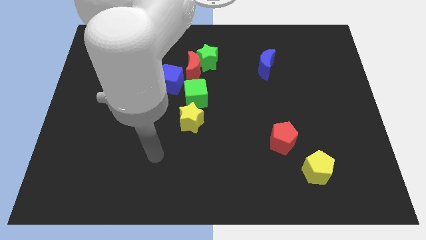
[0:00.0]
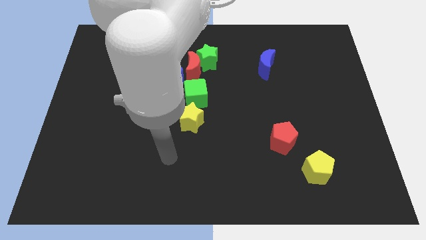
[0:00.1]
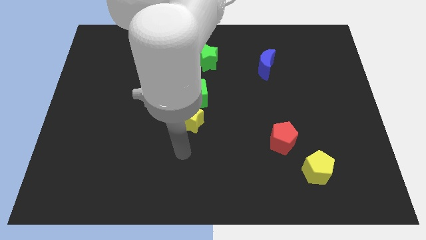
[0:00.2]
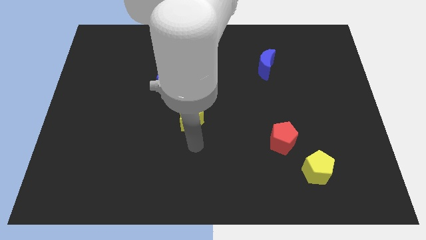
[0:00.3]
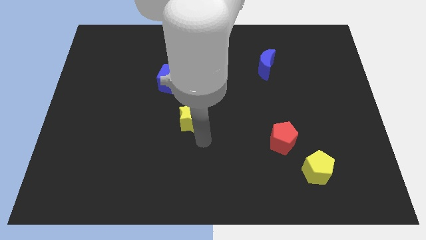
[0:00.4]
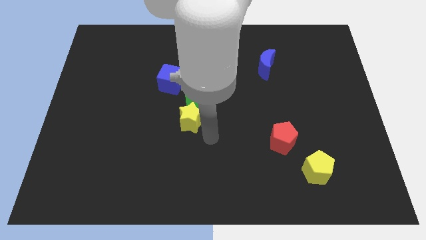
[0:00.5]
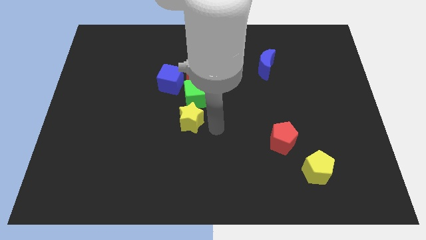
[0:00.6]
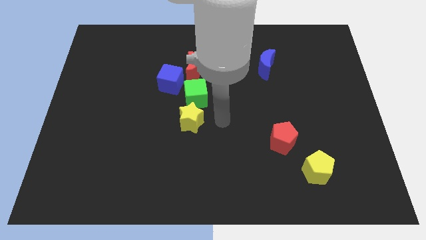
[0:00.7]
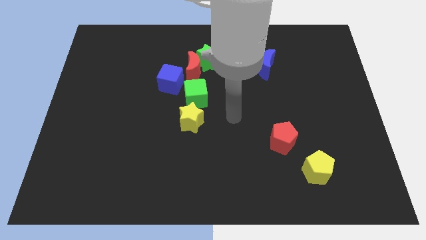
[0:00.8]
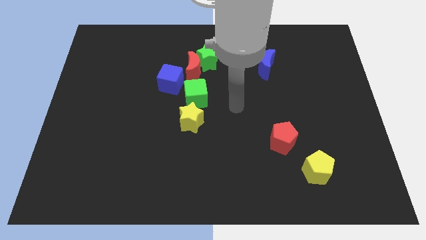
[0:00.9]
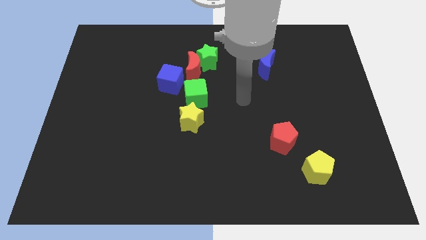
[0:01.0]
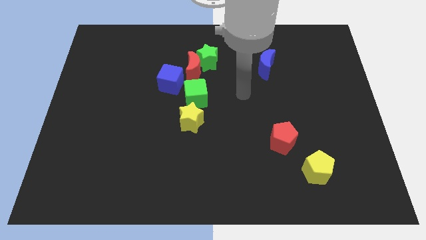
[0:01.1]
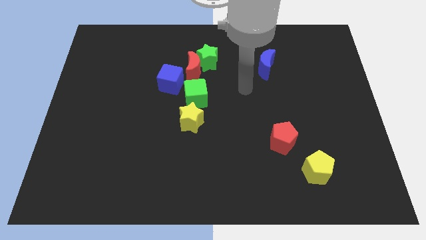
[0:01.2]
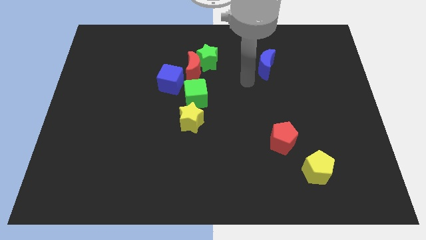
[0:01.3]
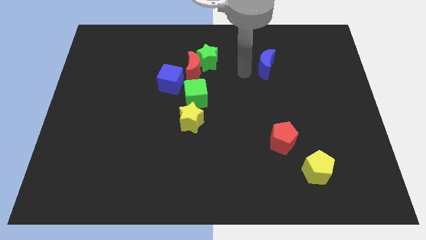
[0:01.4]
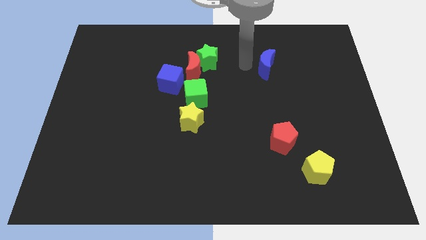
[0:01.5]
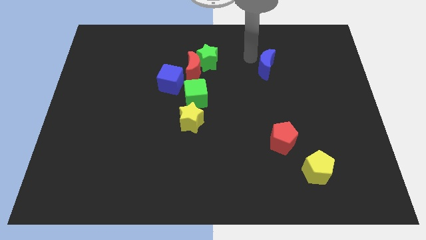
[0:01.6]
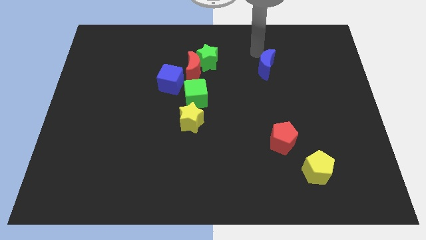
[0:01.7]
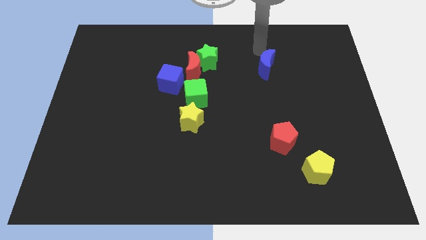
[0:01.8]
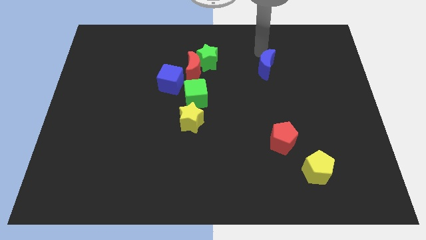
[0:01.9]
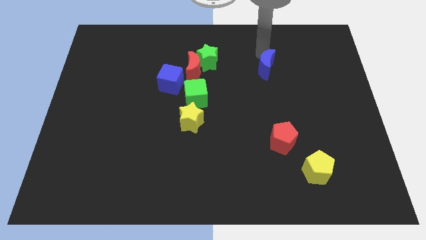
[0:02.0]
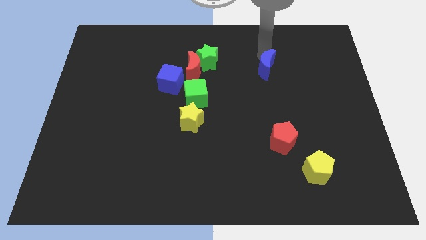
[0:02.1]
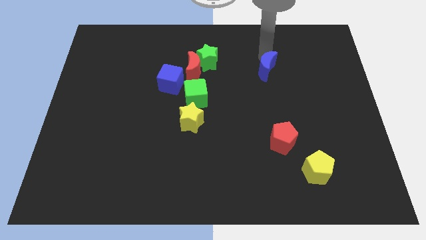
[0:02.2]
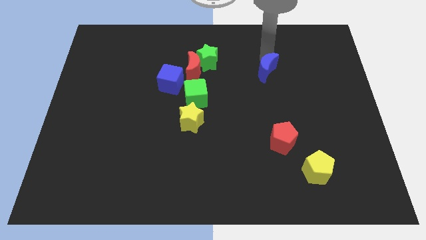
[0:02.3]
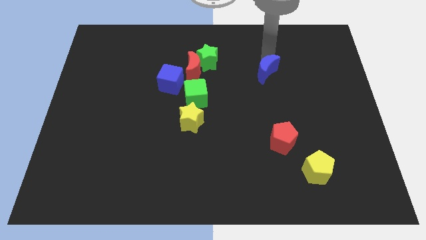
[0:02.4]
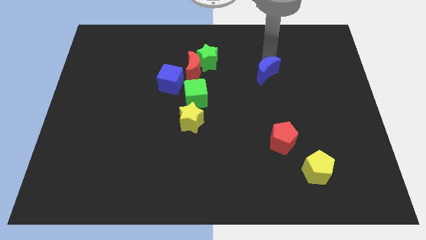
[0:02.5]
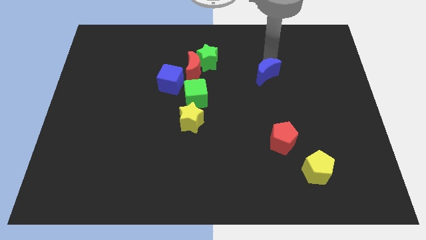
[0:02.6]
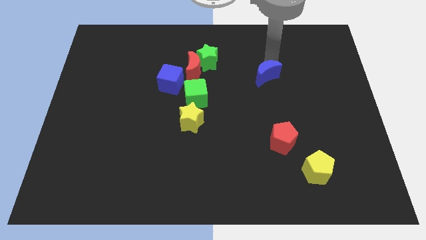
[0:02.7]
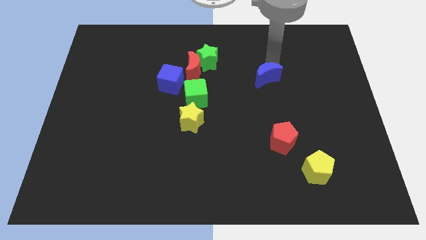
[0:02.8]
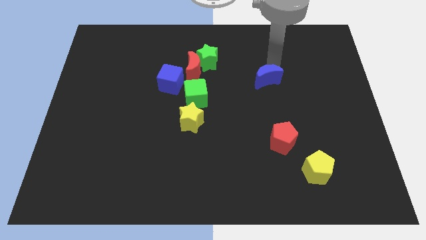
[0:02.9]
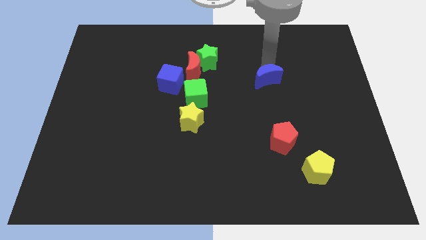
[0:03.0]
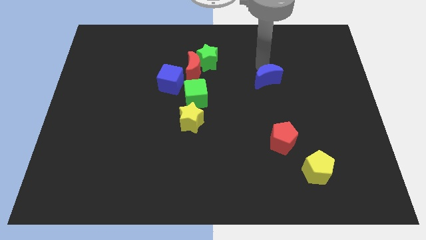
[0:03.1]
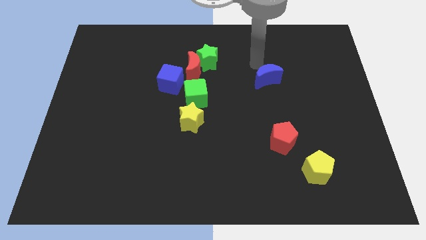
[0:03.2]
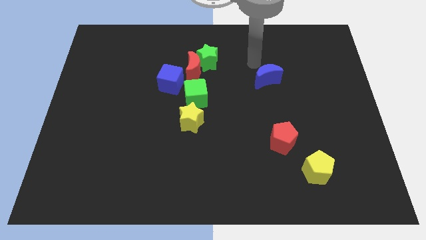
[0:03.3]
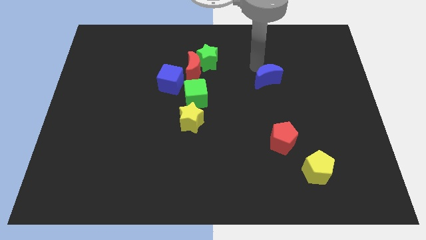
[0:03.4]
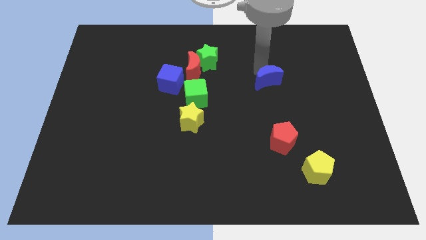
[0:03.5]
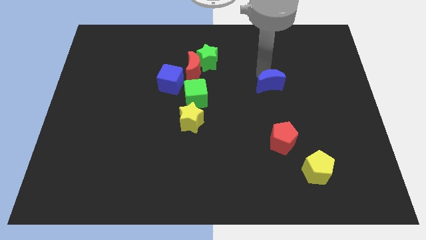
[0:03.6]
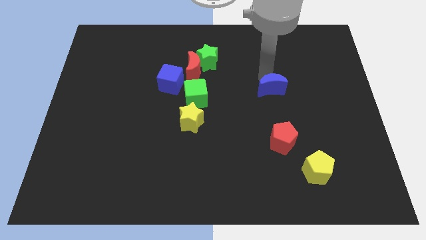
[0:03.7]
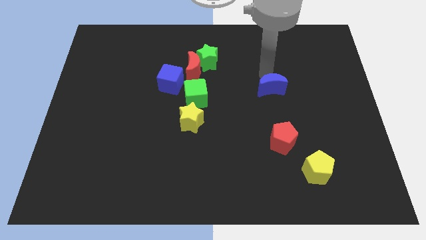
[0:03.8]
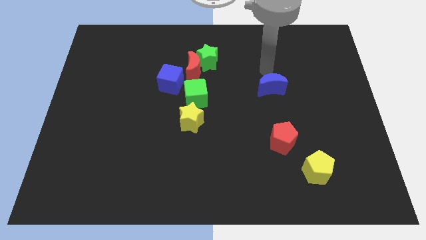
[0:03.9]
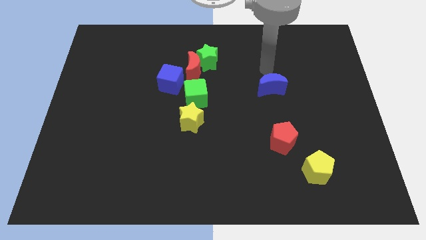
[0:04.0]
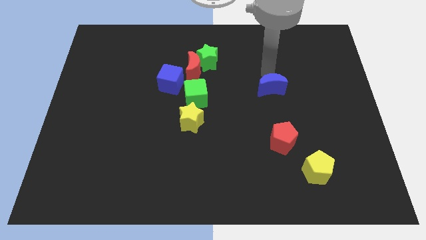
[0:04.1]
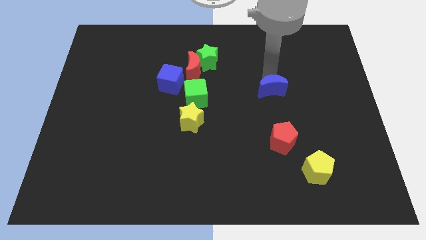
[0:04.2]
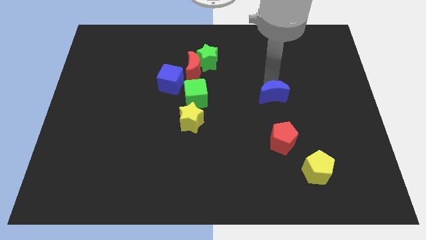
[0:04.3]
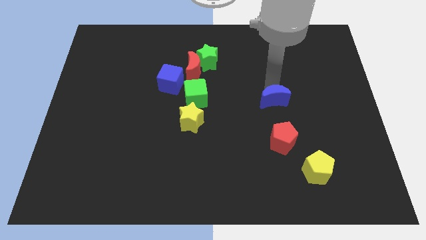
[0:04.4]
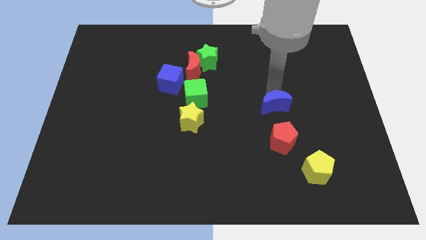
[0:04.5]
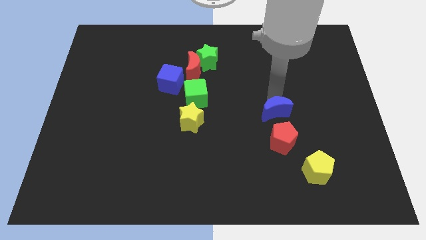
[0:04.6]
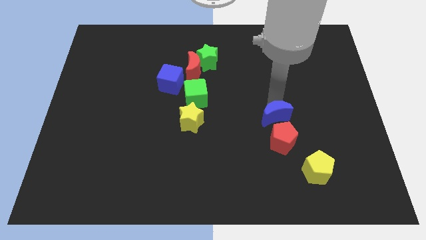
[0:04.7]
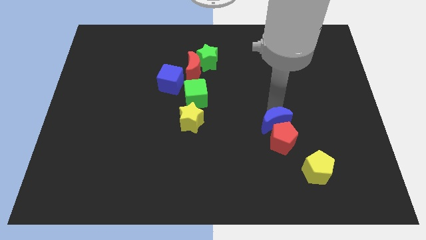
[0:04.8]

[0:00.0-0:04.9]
push the blue moon to the red pentagon

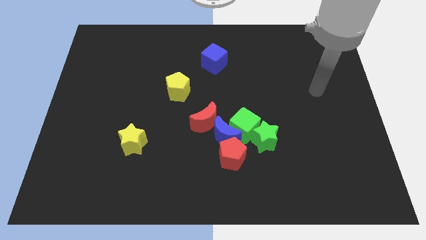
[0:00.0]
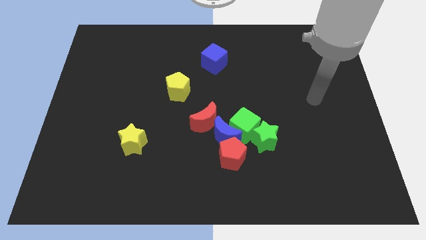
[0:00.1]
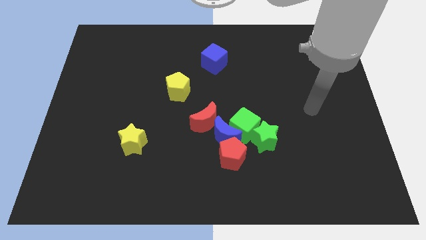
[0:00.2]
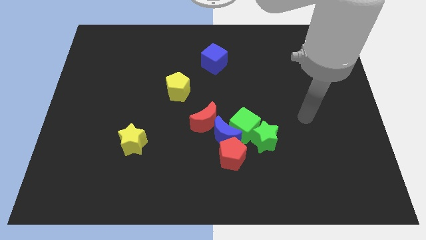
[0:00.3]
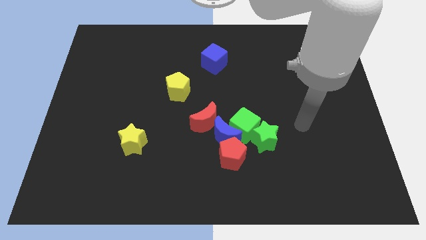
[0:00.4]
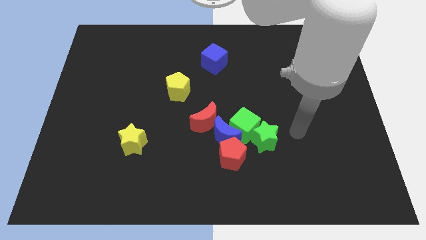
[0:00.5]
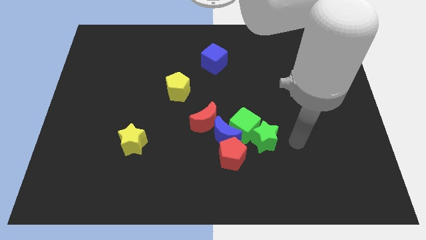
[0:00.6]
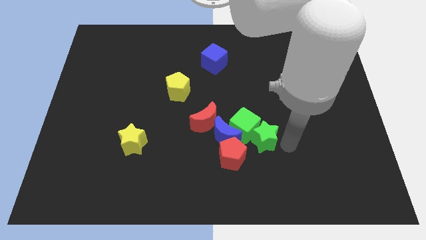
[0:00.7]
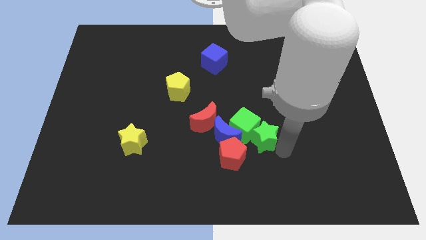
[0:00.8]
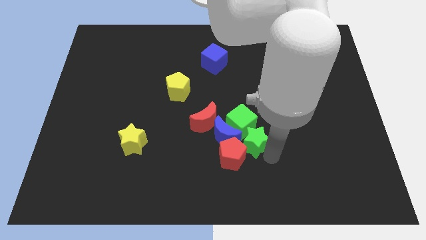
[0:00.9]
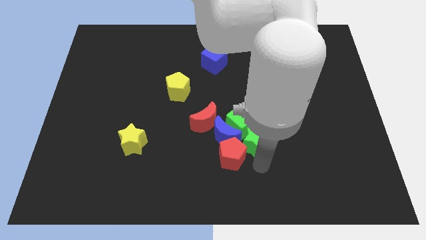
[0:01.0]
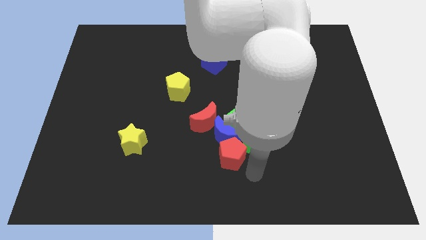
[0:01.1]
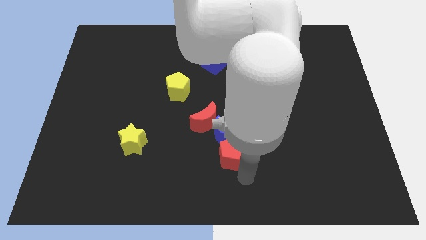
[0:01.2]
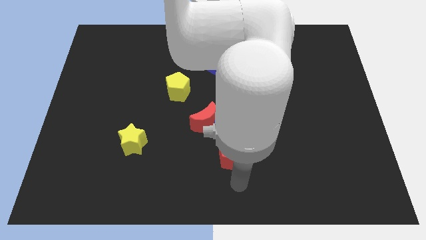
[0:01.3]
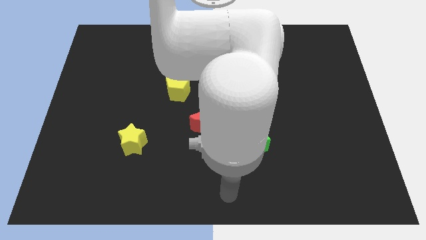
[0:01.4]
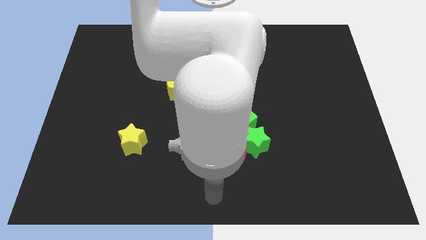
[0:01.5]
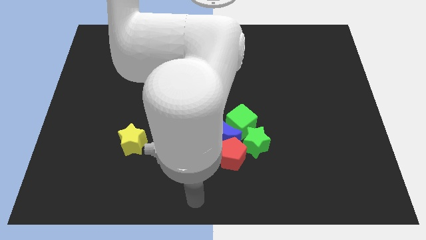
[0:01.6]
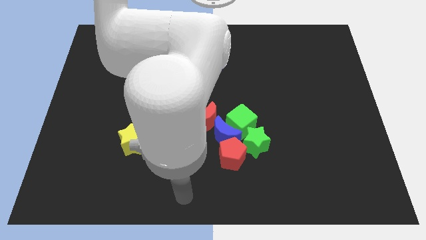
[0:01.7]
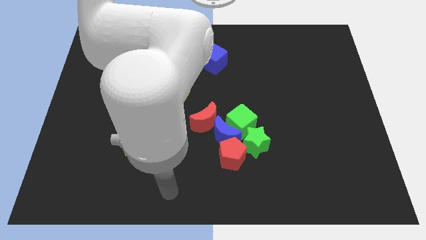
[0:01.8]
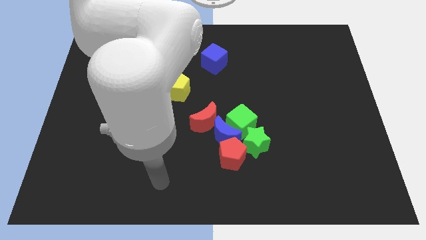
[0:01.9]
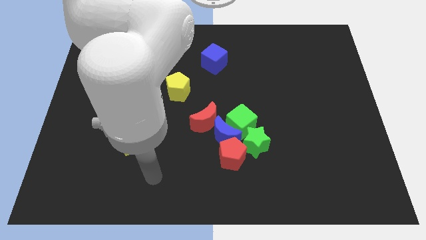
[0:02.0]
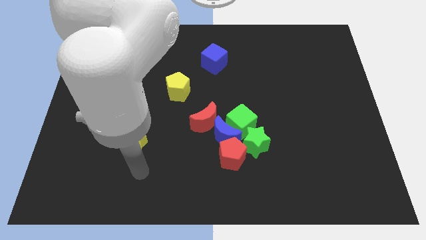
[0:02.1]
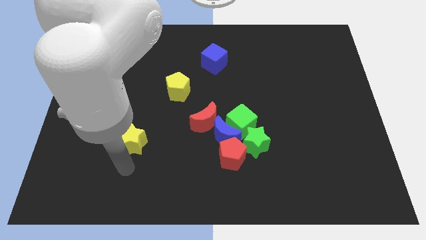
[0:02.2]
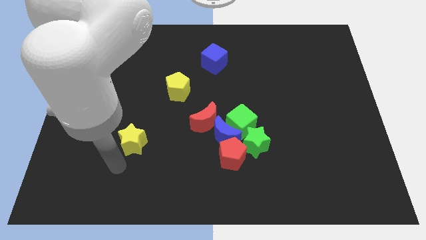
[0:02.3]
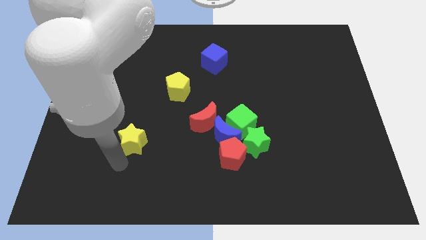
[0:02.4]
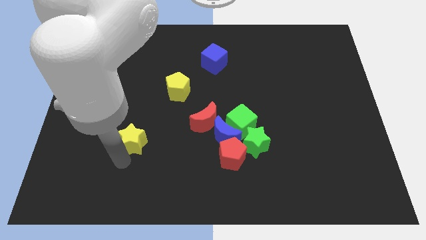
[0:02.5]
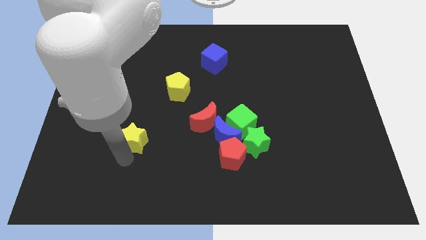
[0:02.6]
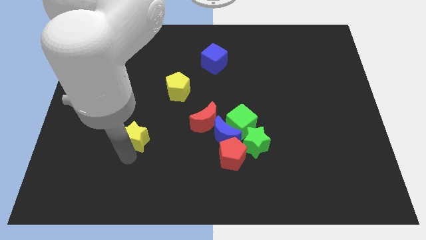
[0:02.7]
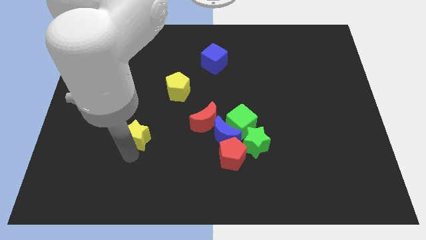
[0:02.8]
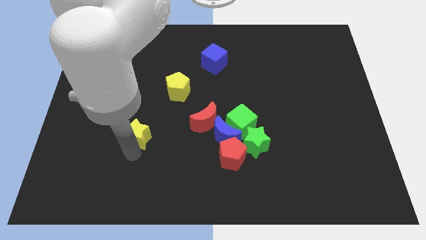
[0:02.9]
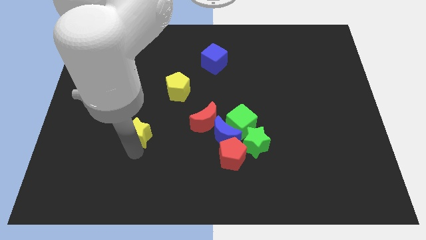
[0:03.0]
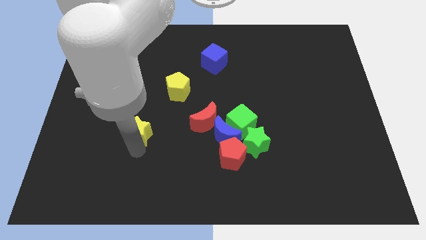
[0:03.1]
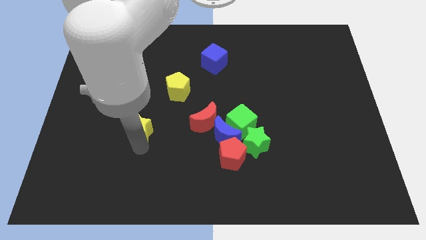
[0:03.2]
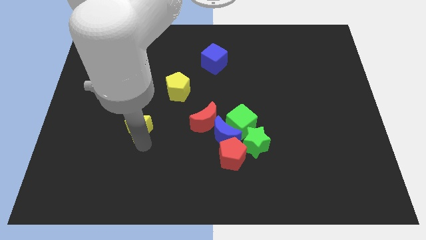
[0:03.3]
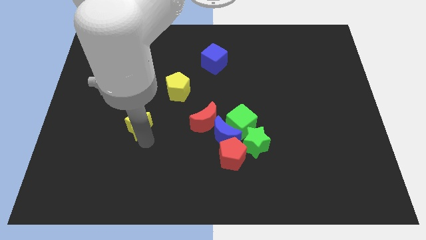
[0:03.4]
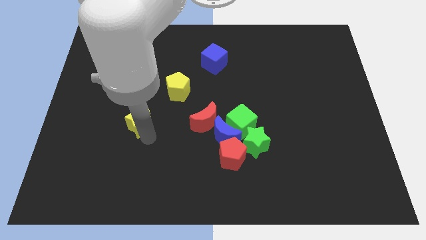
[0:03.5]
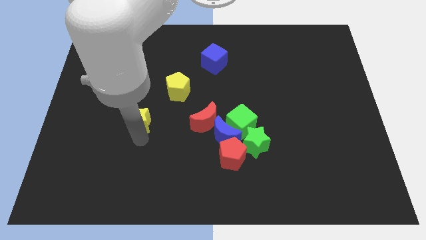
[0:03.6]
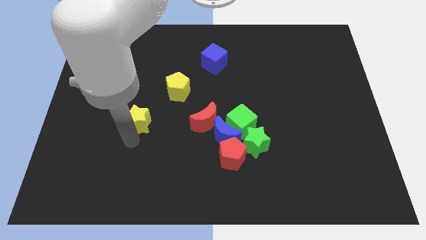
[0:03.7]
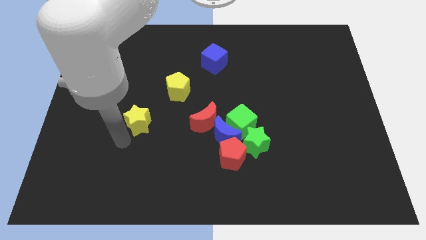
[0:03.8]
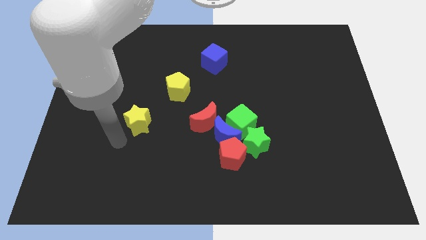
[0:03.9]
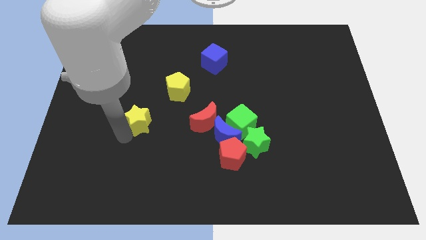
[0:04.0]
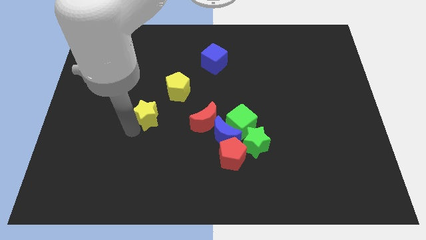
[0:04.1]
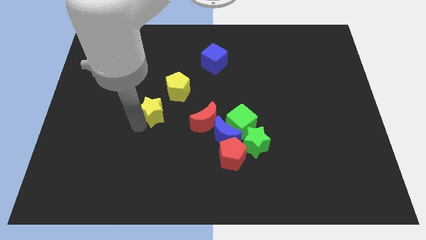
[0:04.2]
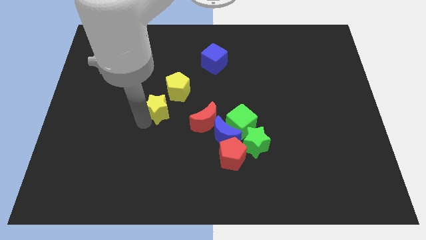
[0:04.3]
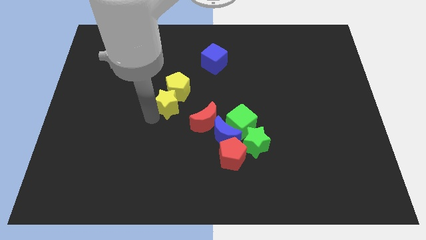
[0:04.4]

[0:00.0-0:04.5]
move the yellow star close to the yellow pentagon
